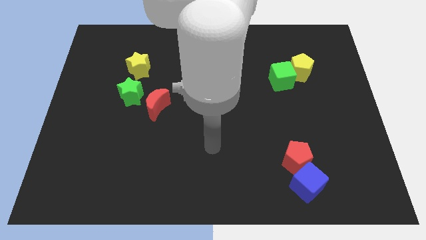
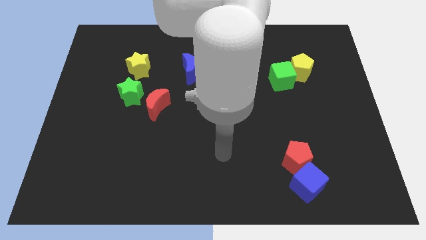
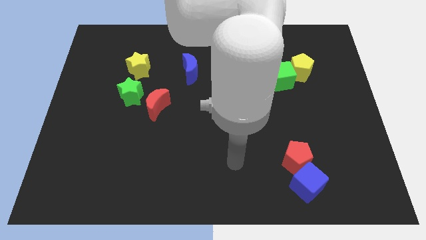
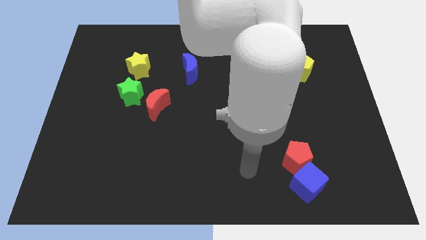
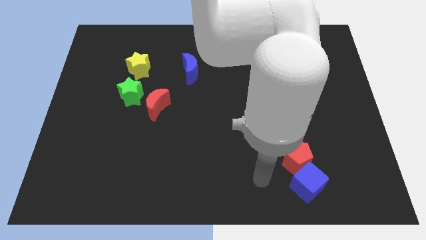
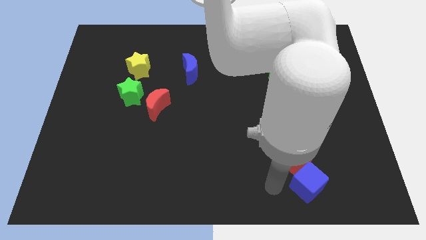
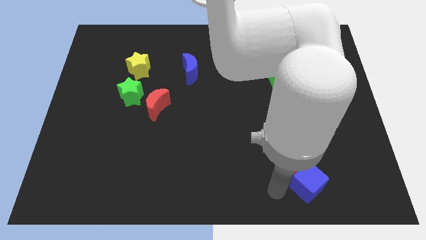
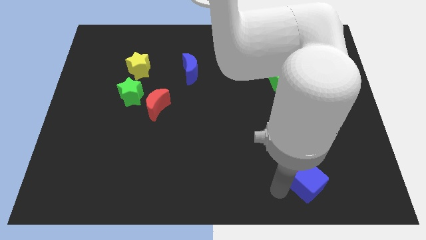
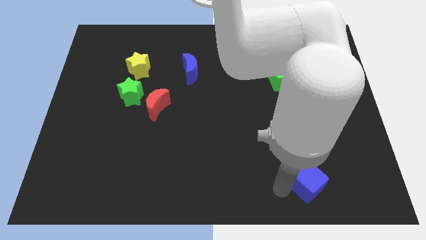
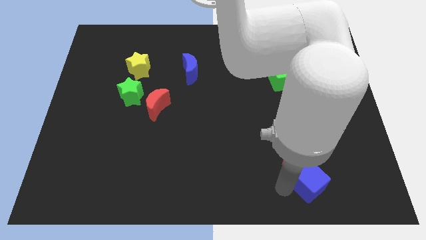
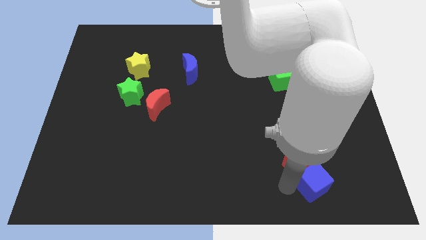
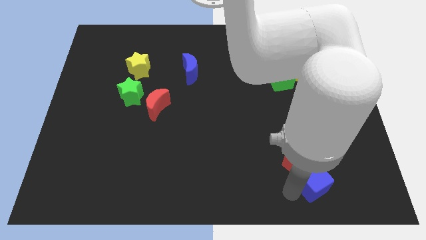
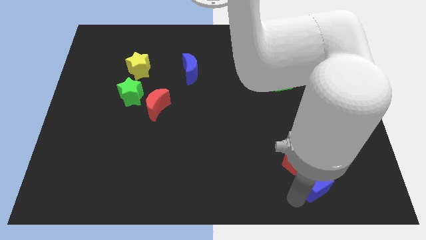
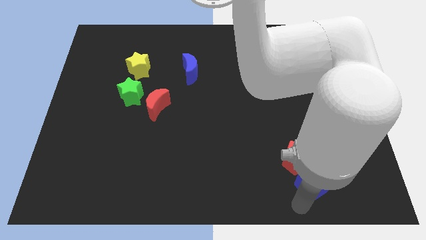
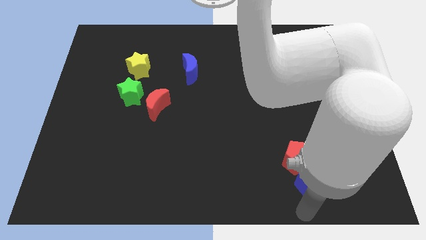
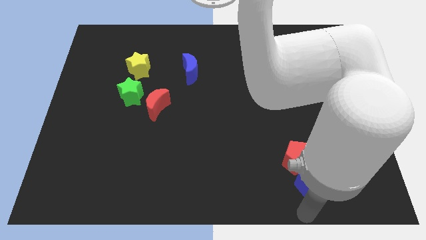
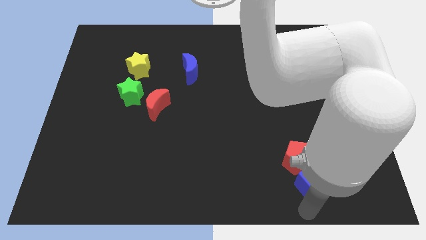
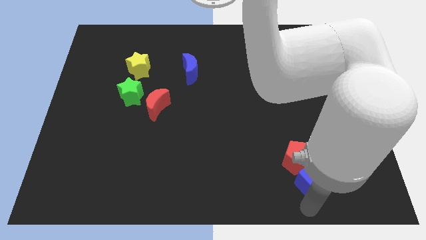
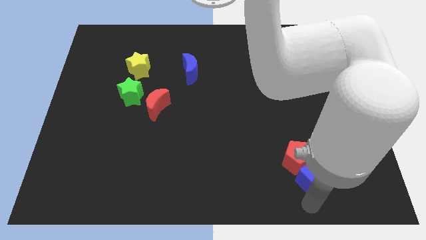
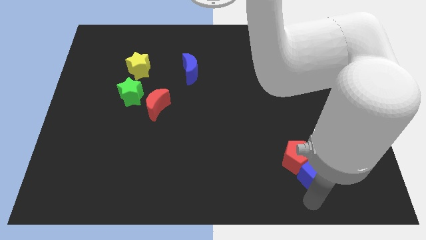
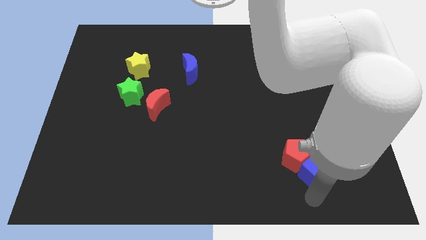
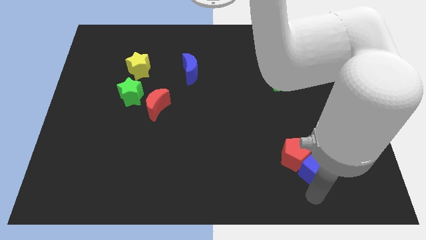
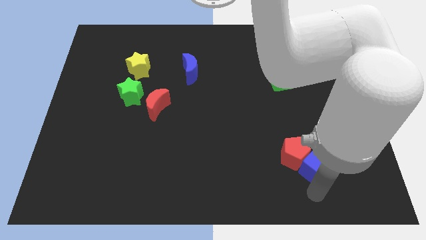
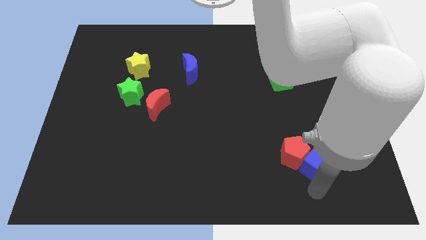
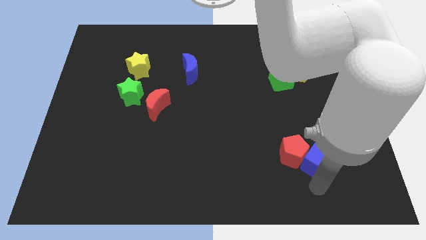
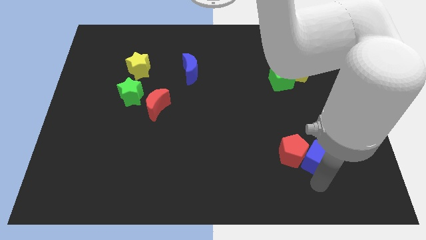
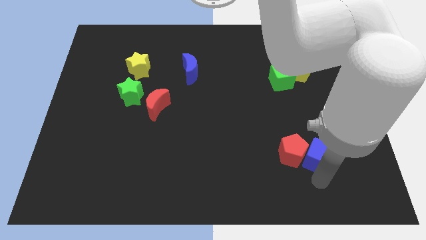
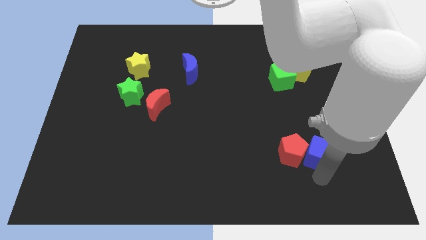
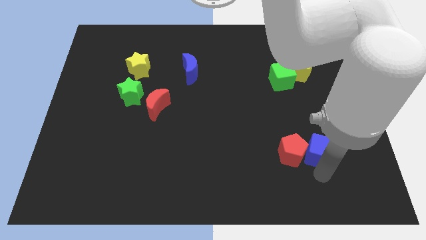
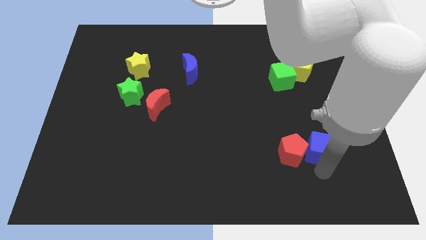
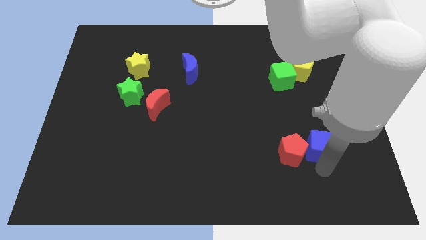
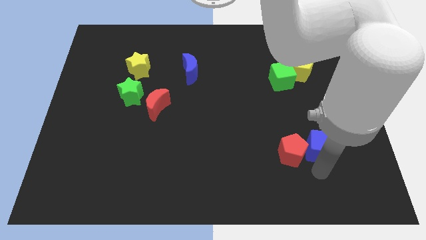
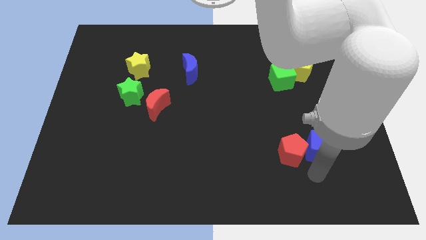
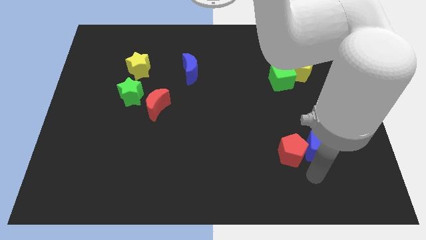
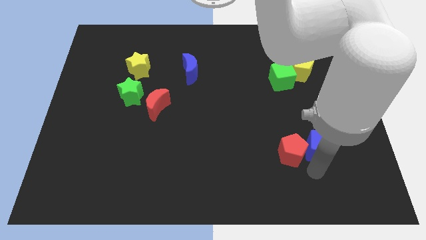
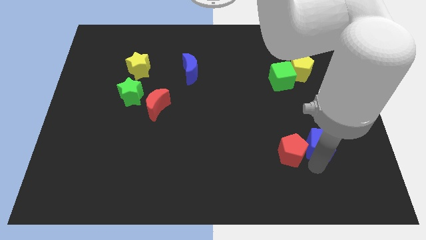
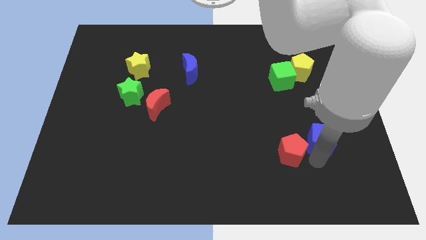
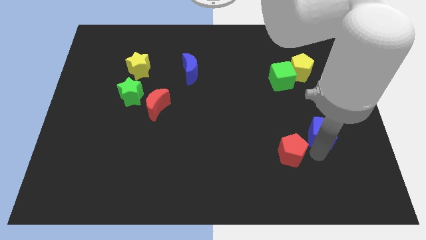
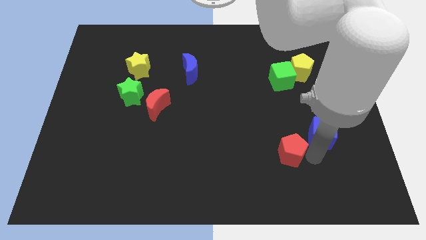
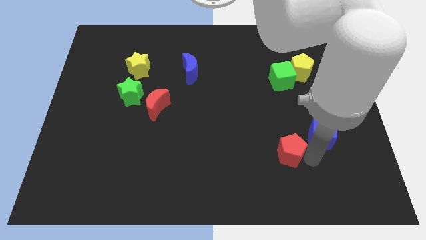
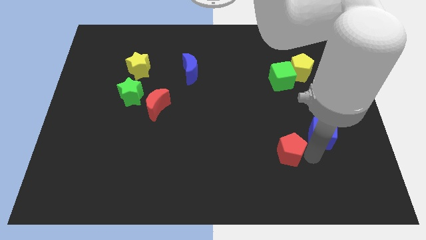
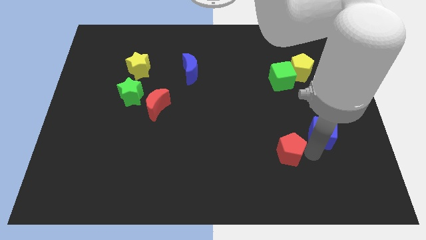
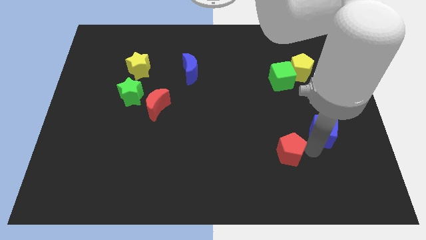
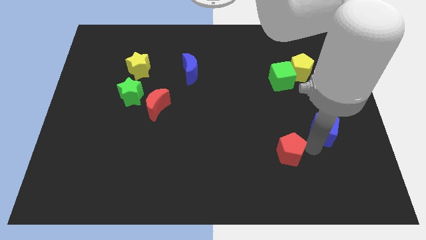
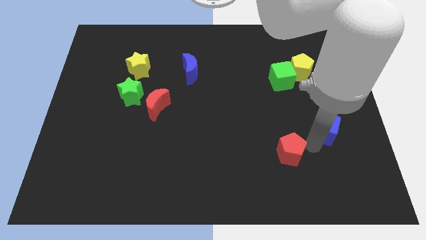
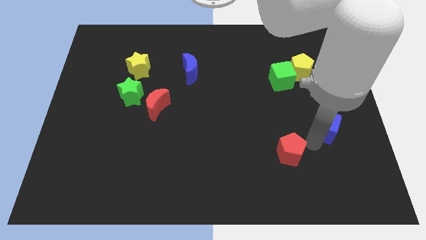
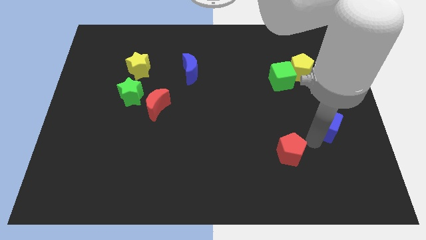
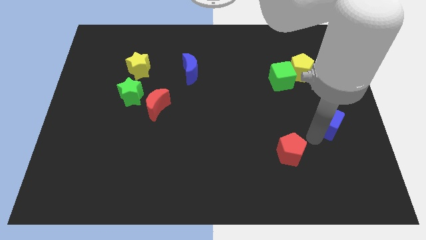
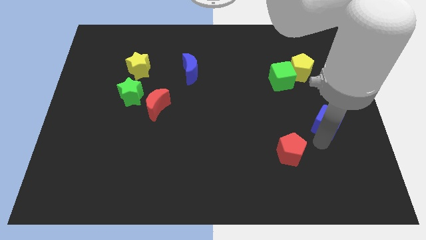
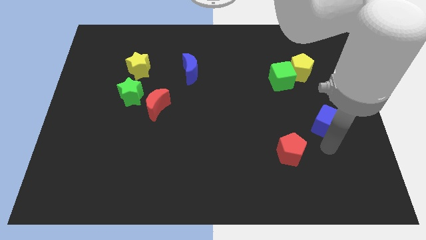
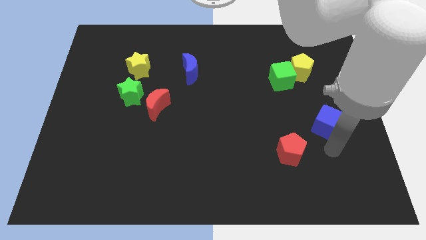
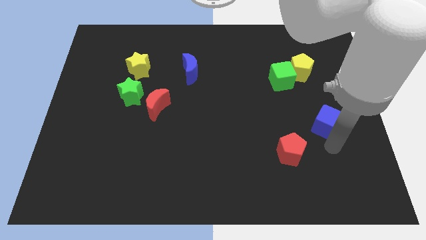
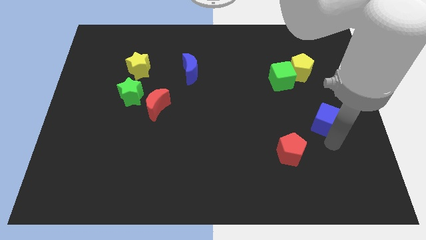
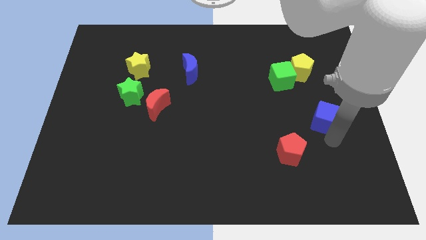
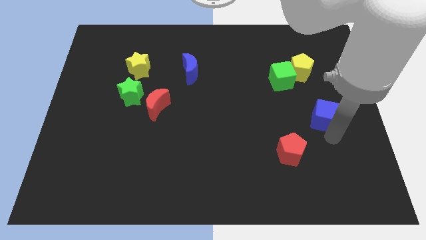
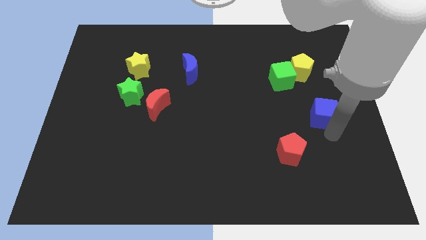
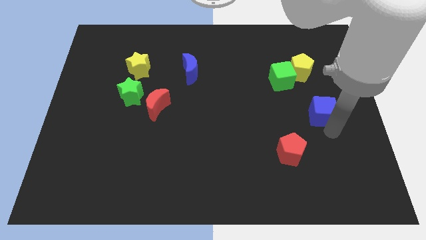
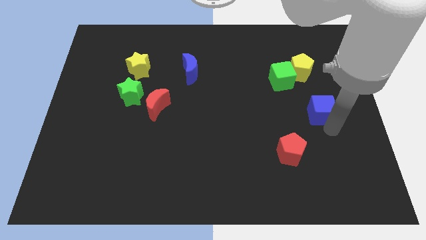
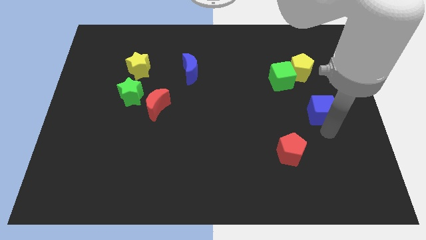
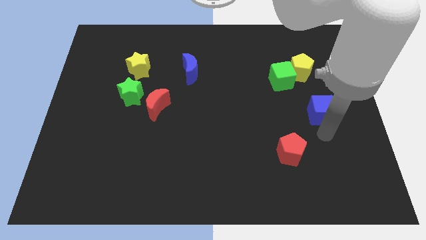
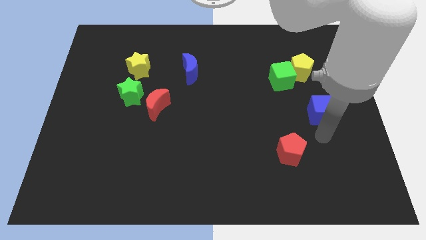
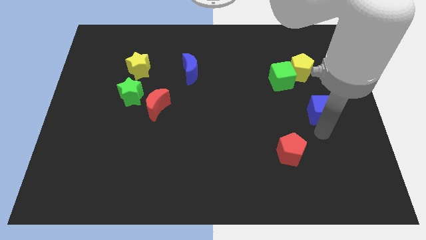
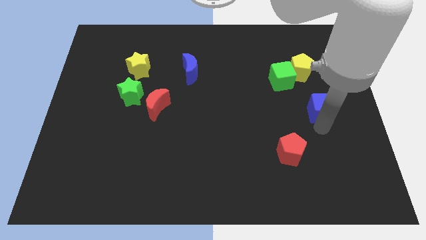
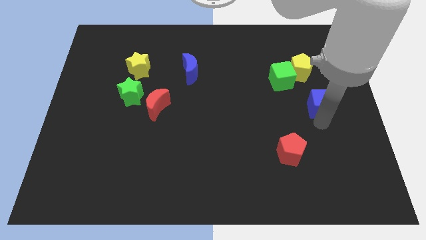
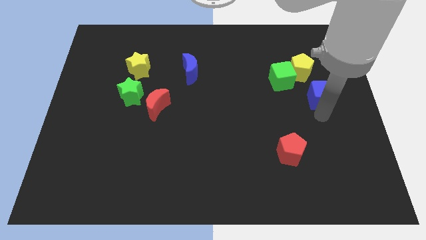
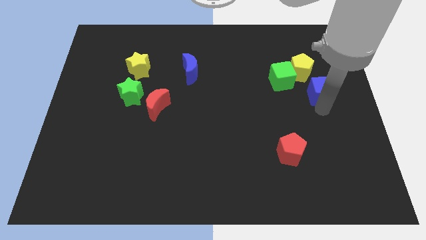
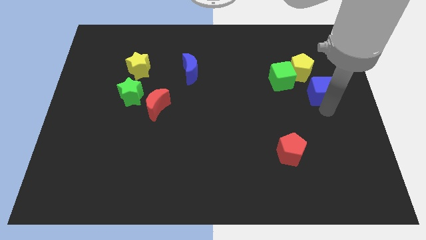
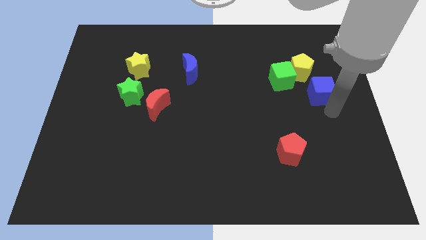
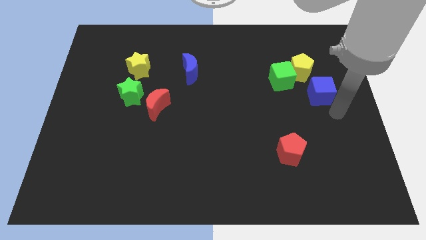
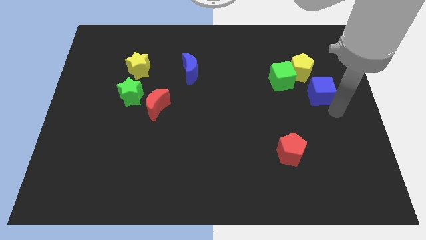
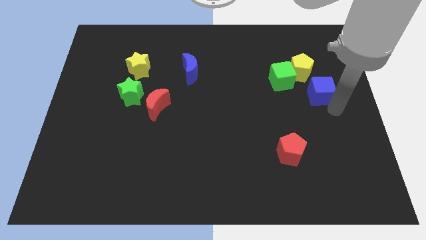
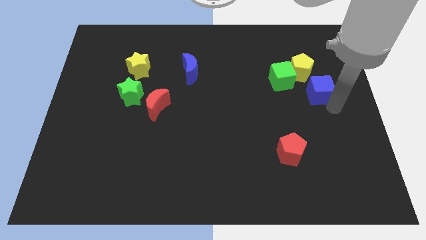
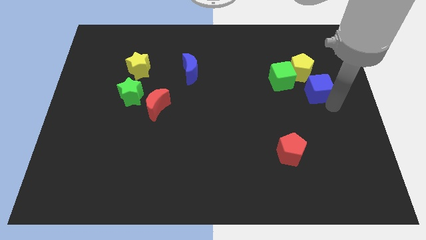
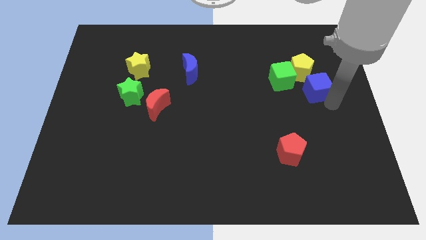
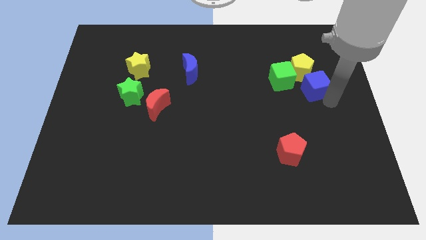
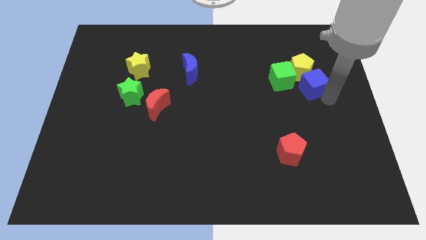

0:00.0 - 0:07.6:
move the blue cube towards the yellow pentagon
